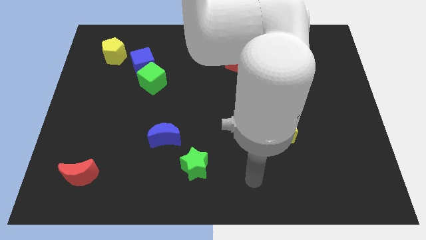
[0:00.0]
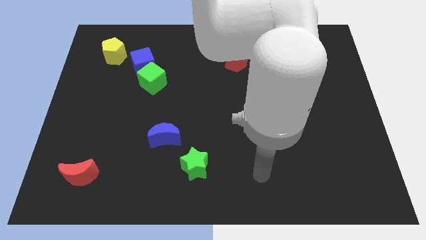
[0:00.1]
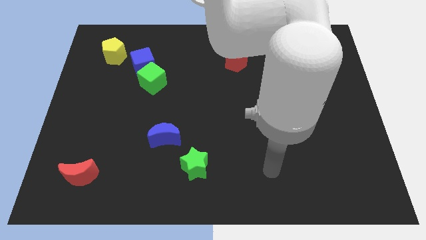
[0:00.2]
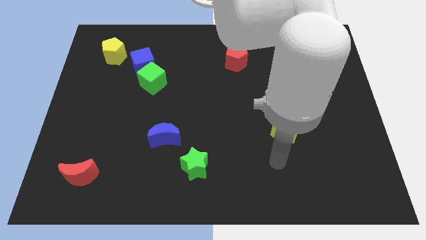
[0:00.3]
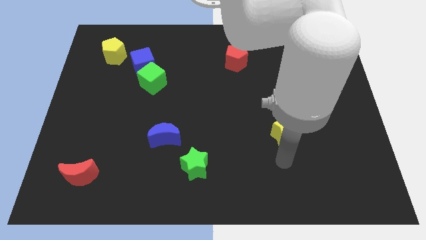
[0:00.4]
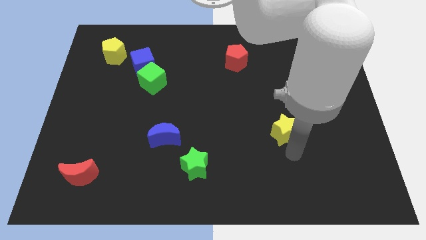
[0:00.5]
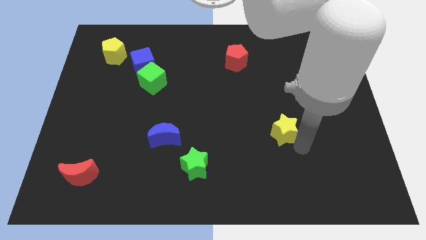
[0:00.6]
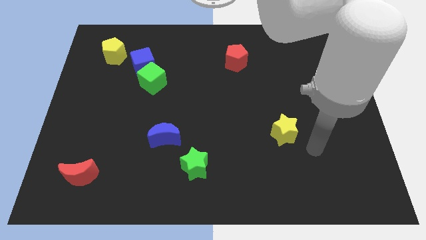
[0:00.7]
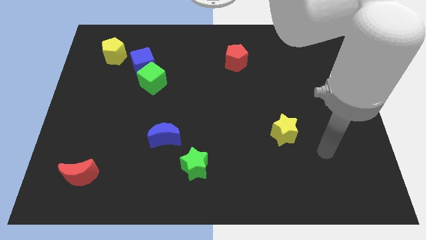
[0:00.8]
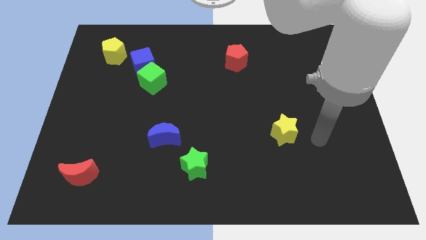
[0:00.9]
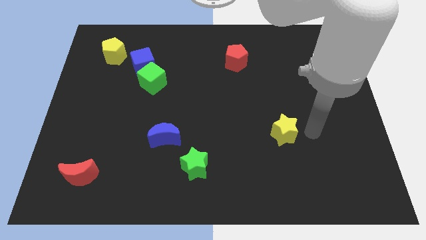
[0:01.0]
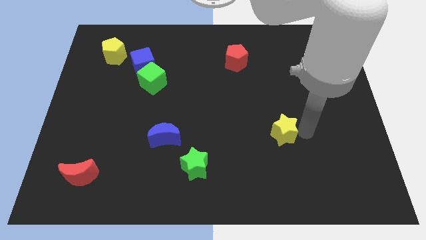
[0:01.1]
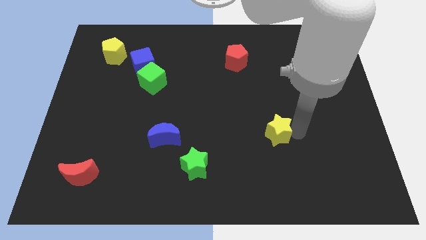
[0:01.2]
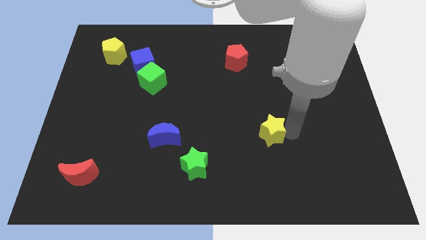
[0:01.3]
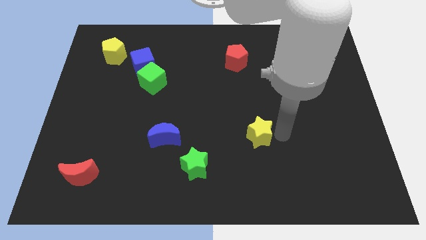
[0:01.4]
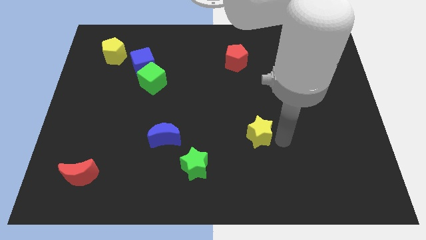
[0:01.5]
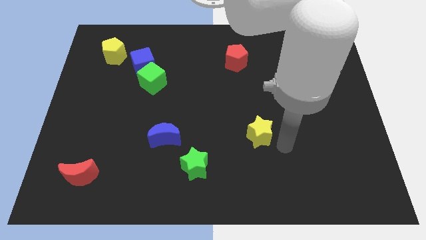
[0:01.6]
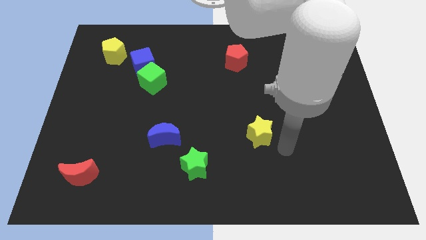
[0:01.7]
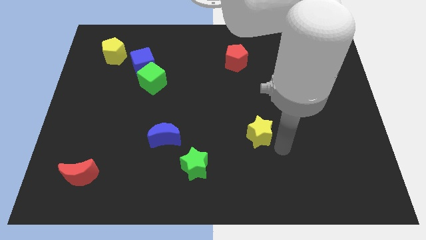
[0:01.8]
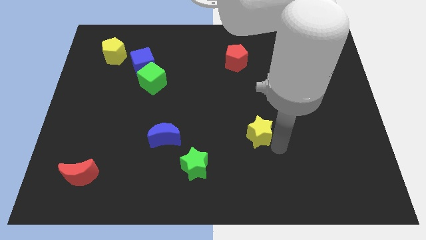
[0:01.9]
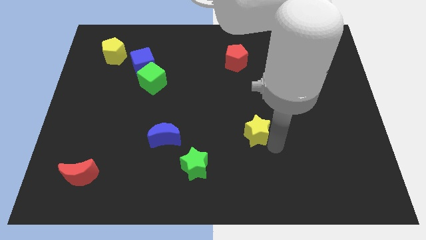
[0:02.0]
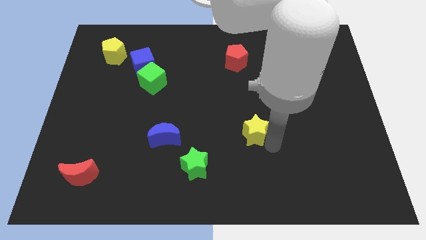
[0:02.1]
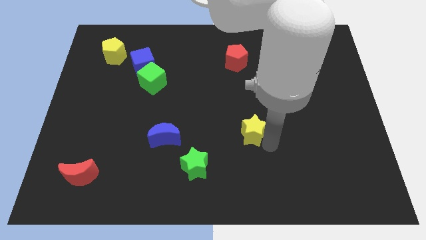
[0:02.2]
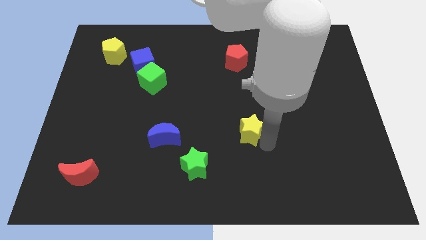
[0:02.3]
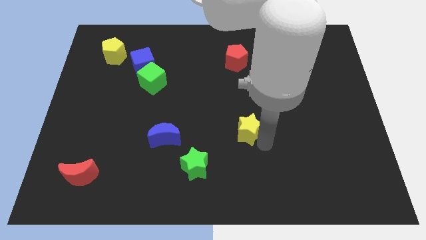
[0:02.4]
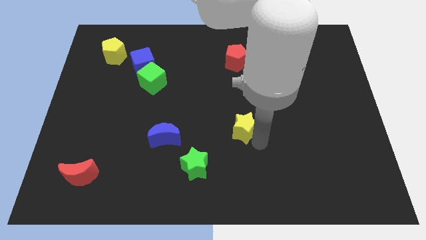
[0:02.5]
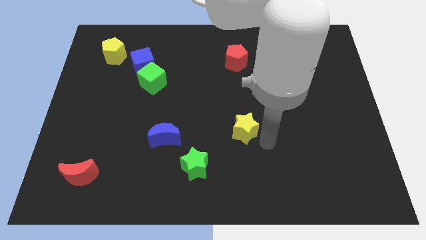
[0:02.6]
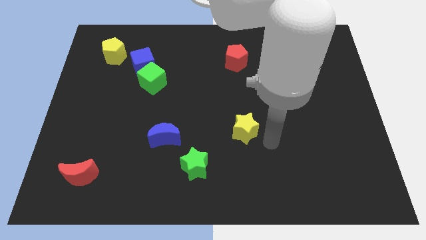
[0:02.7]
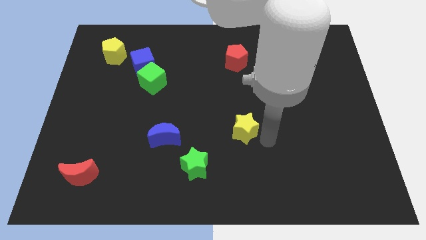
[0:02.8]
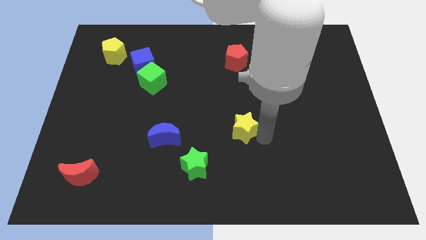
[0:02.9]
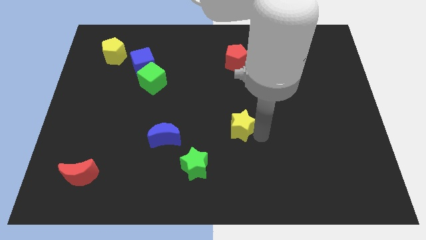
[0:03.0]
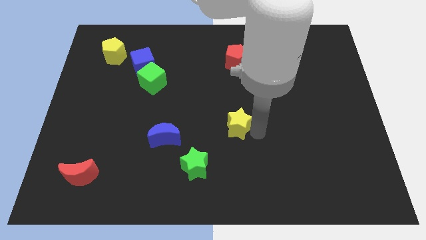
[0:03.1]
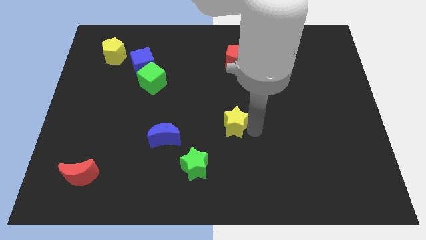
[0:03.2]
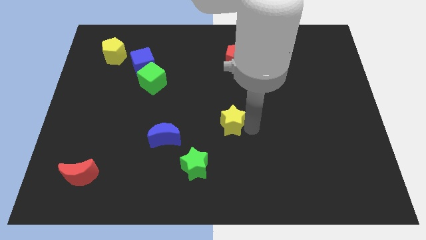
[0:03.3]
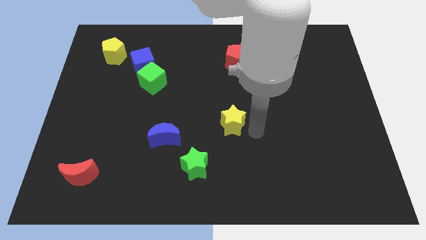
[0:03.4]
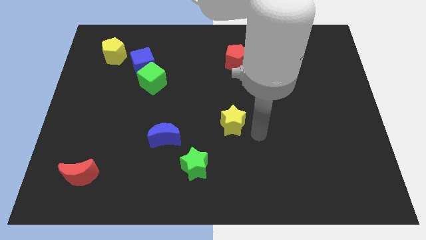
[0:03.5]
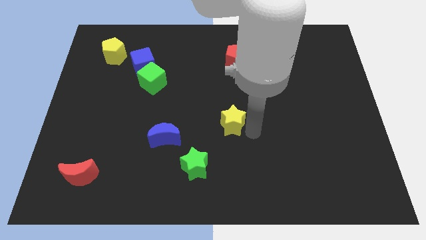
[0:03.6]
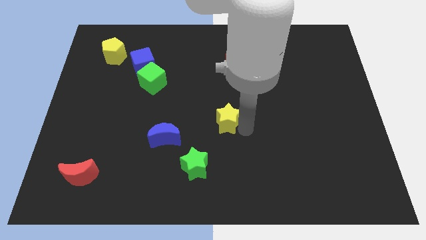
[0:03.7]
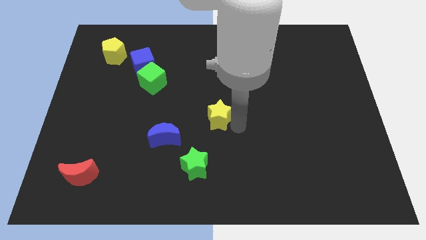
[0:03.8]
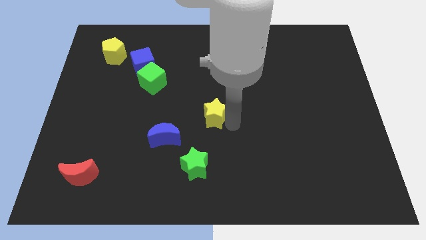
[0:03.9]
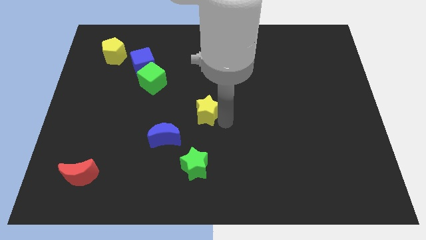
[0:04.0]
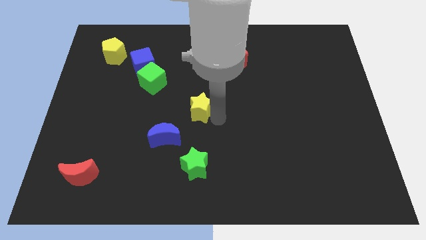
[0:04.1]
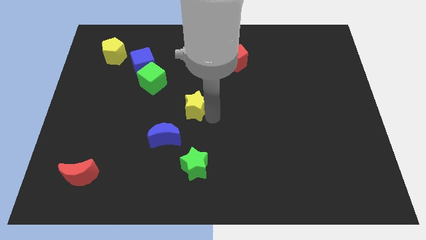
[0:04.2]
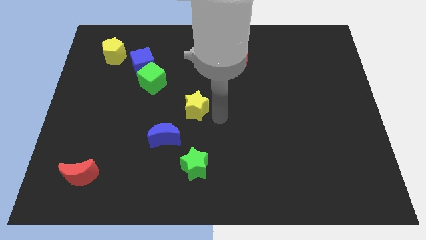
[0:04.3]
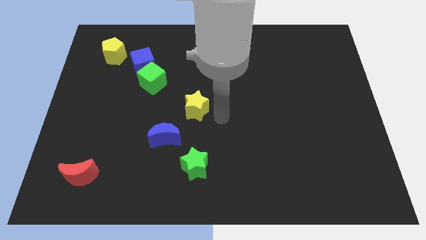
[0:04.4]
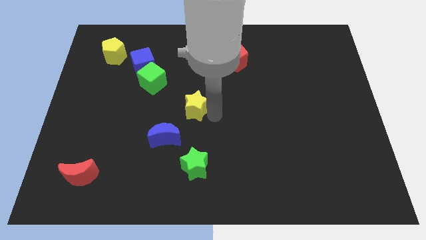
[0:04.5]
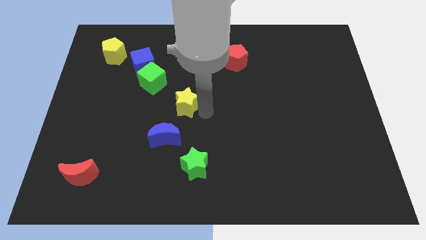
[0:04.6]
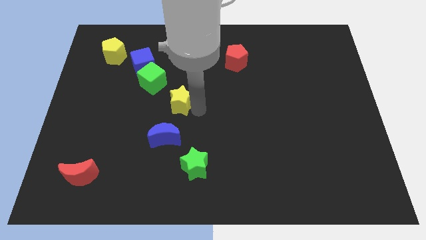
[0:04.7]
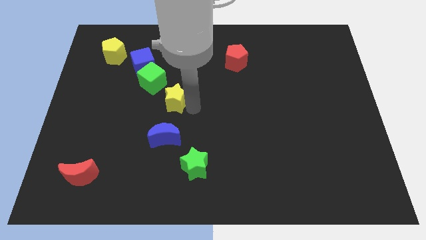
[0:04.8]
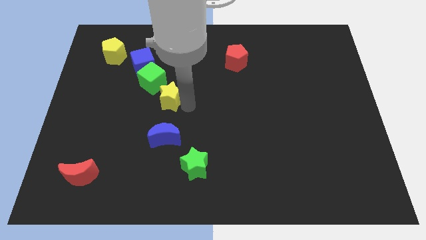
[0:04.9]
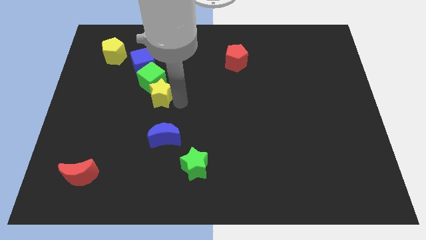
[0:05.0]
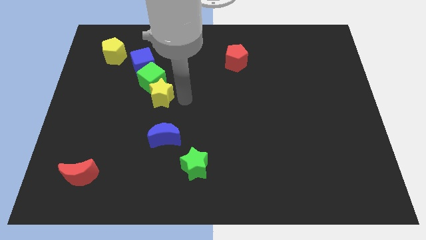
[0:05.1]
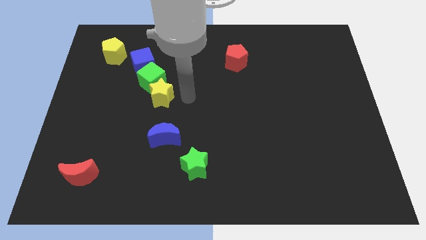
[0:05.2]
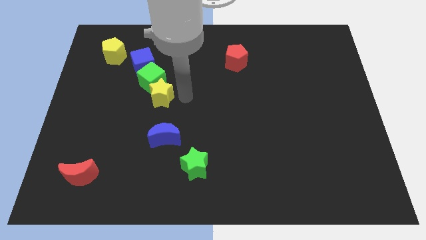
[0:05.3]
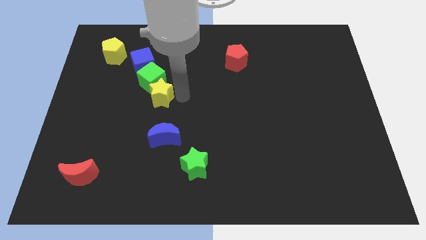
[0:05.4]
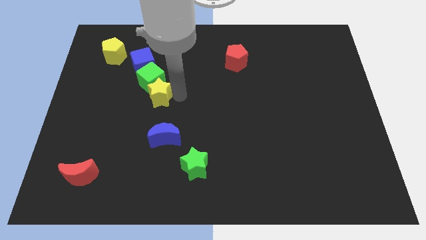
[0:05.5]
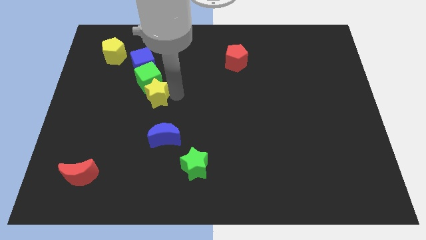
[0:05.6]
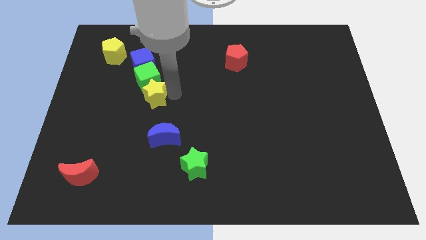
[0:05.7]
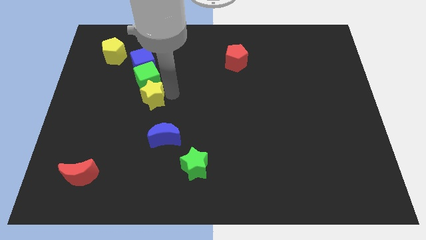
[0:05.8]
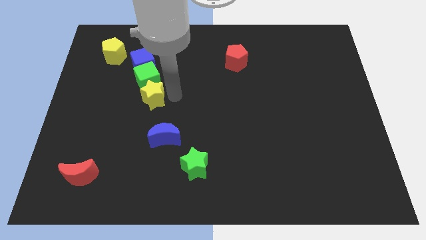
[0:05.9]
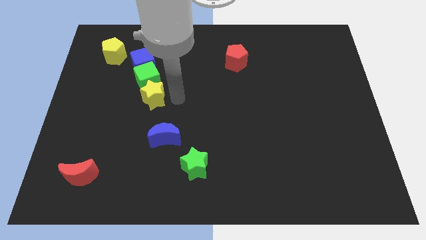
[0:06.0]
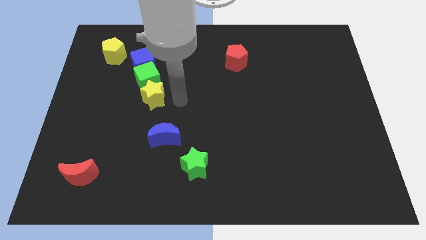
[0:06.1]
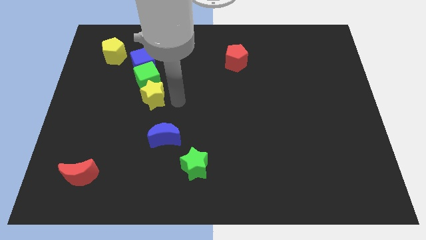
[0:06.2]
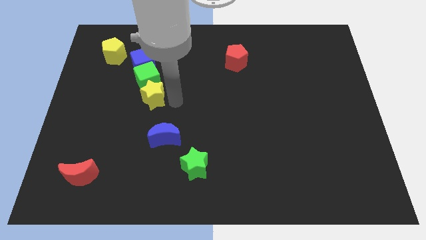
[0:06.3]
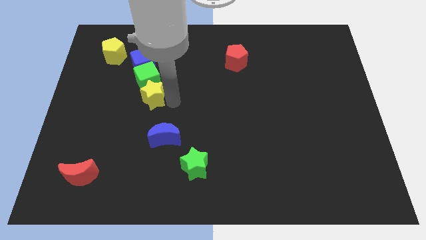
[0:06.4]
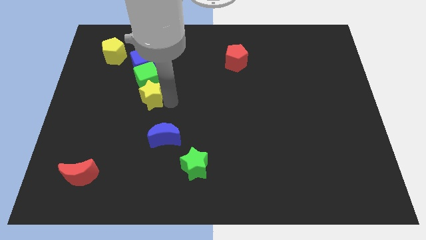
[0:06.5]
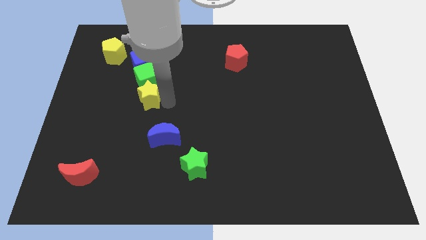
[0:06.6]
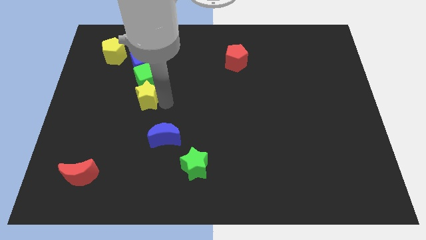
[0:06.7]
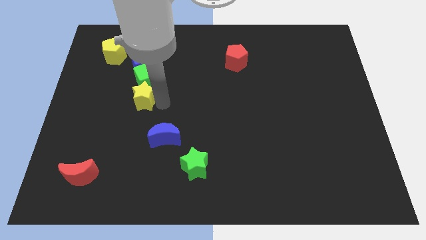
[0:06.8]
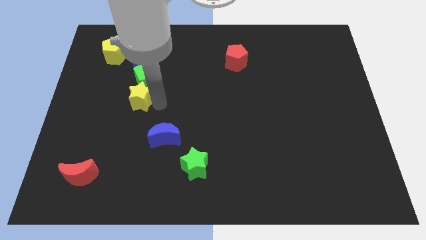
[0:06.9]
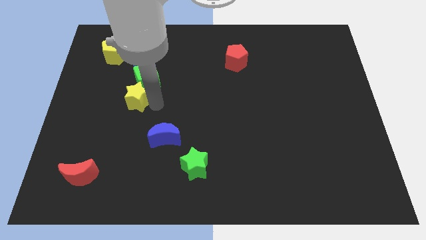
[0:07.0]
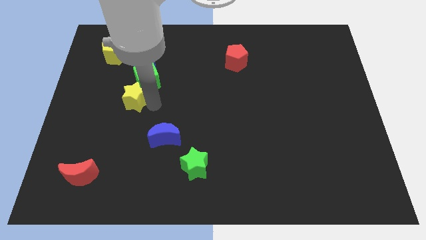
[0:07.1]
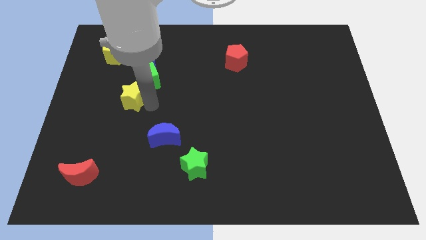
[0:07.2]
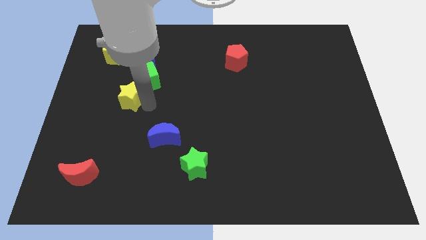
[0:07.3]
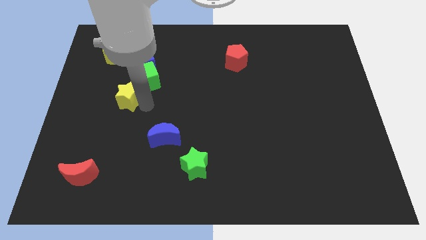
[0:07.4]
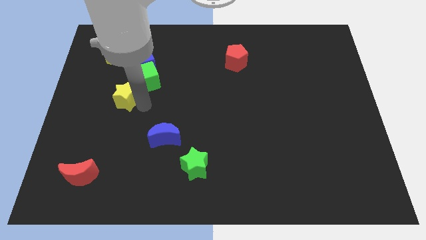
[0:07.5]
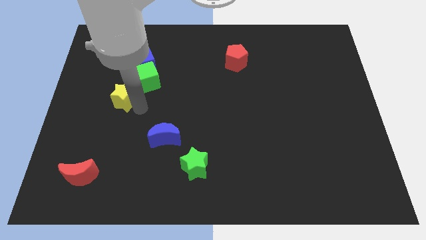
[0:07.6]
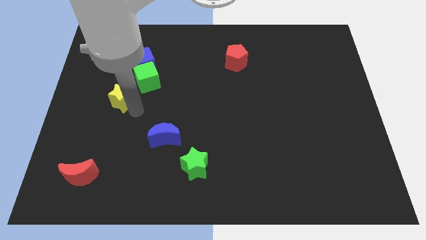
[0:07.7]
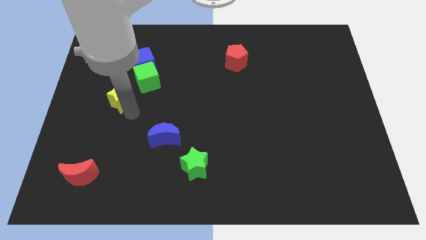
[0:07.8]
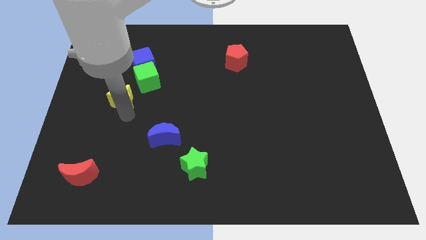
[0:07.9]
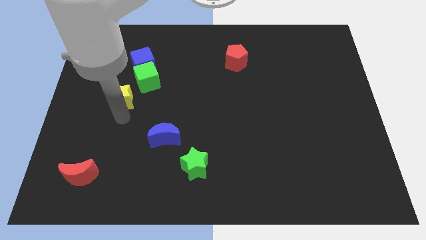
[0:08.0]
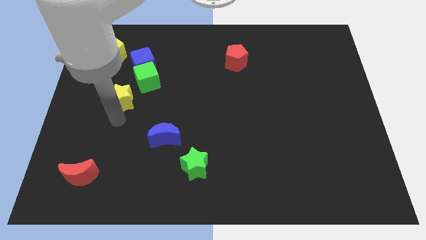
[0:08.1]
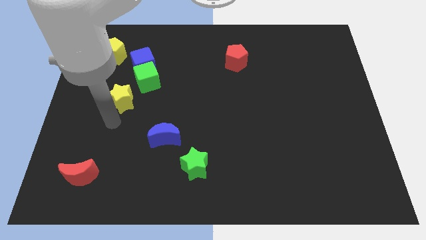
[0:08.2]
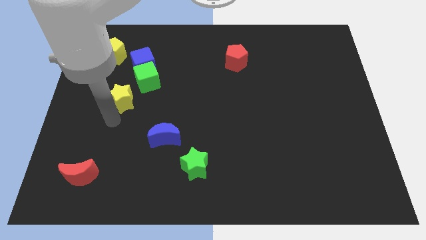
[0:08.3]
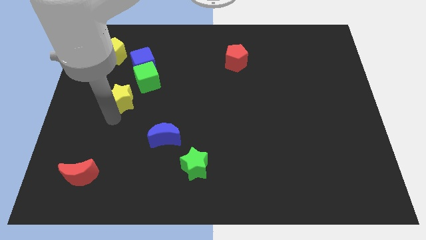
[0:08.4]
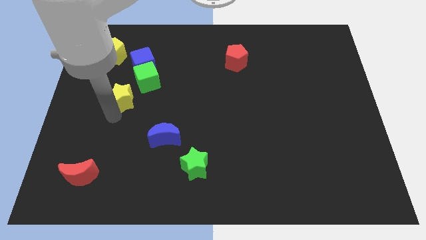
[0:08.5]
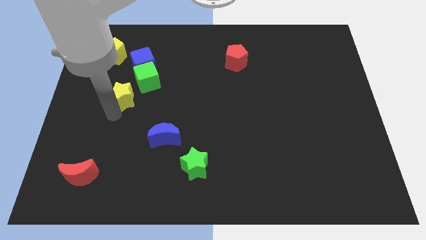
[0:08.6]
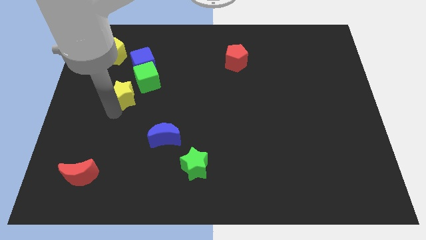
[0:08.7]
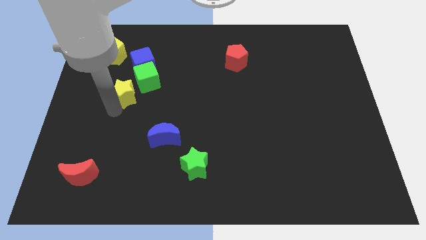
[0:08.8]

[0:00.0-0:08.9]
push the yellow star to the left of the green cube
